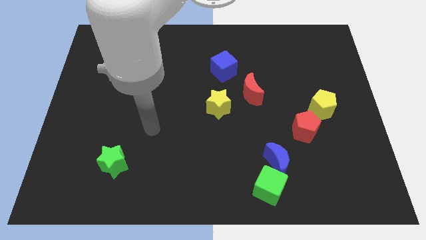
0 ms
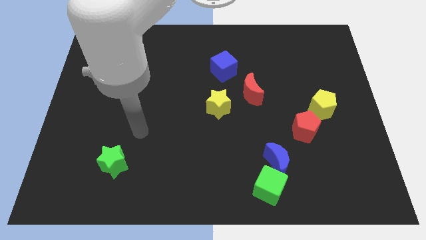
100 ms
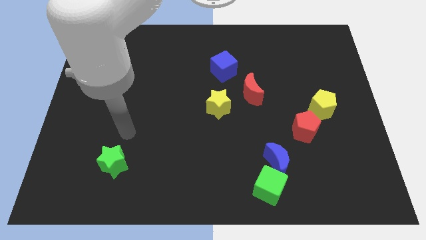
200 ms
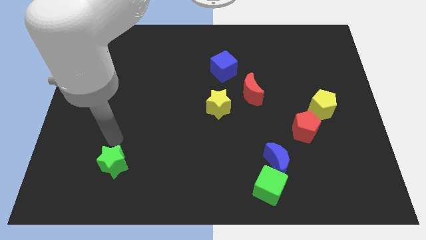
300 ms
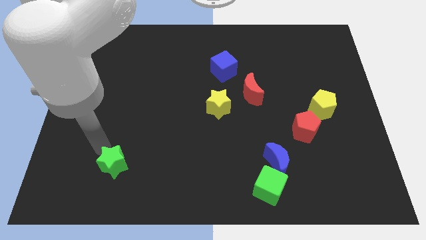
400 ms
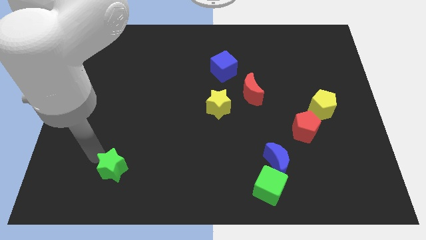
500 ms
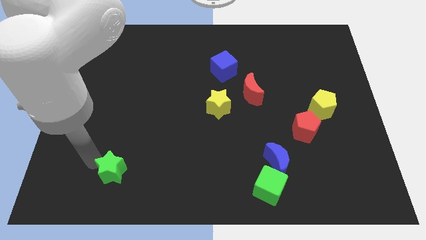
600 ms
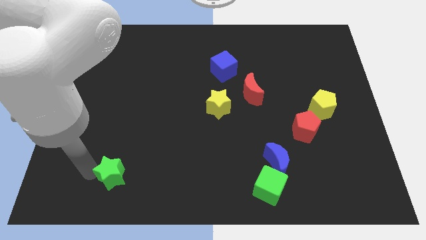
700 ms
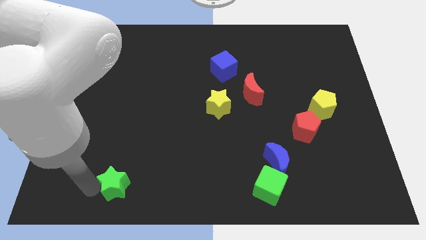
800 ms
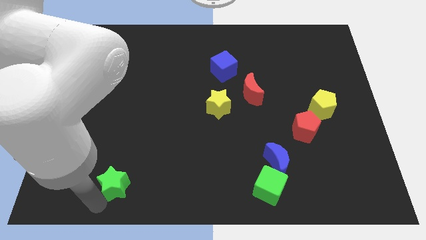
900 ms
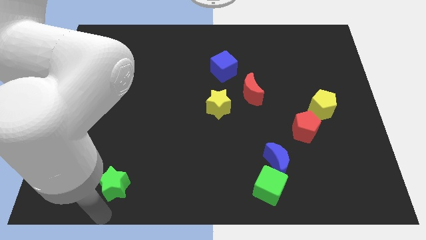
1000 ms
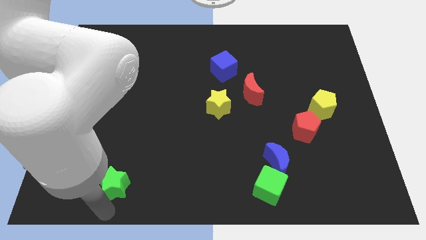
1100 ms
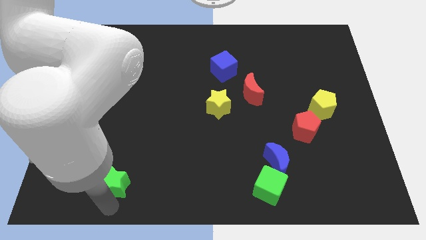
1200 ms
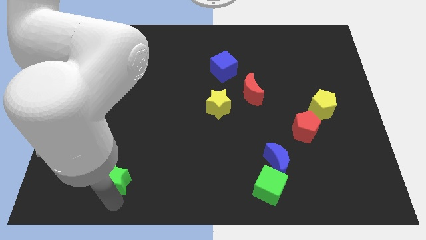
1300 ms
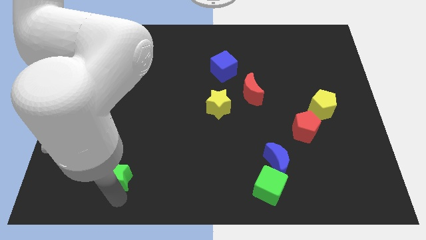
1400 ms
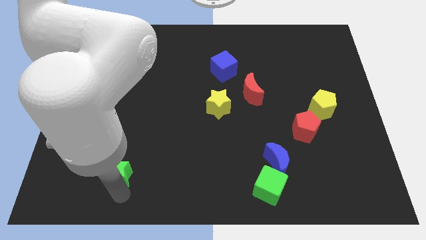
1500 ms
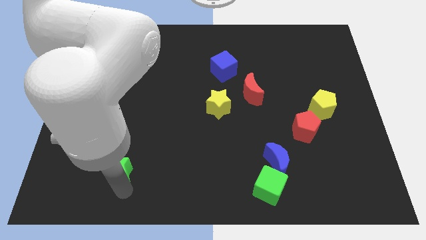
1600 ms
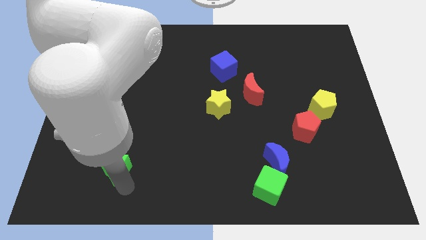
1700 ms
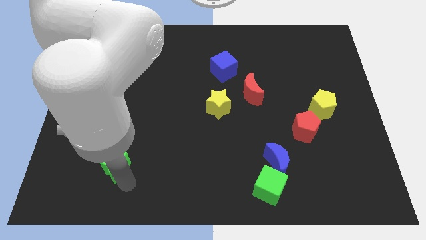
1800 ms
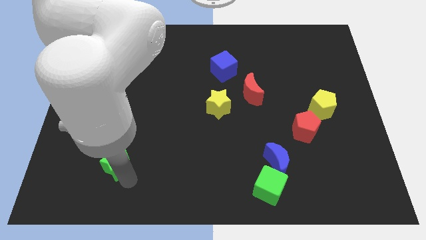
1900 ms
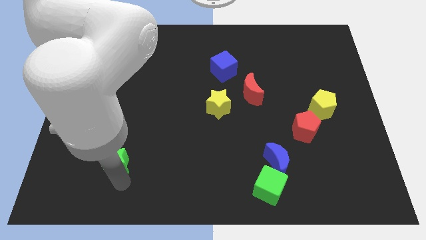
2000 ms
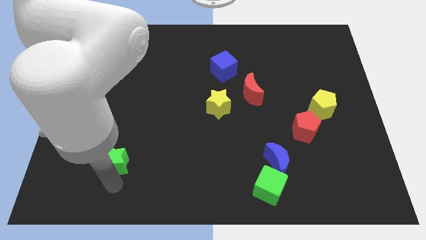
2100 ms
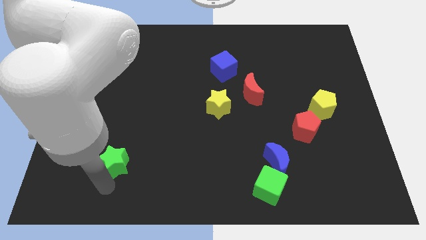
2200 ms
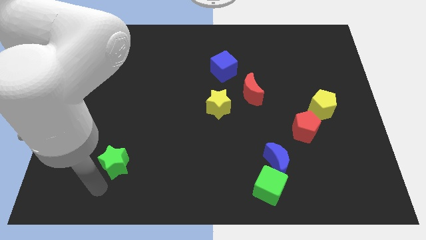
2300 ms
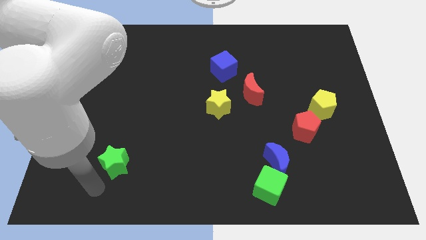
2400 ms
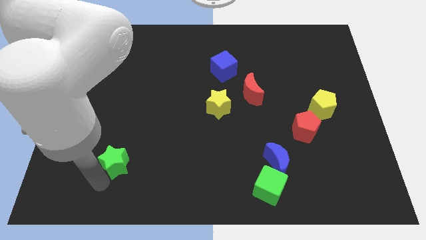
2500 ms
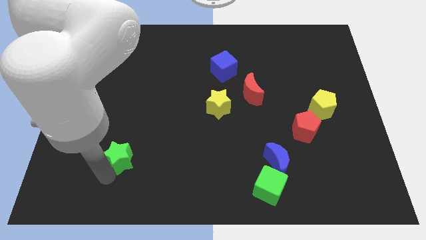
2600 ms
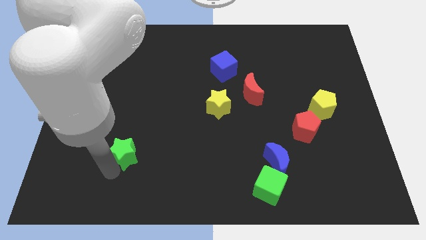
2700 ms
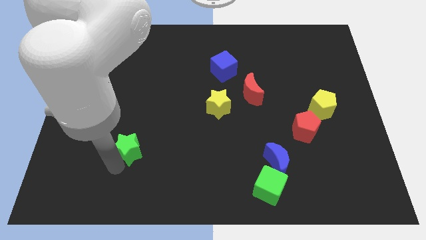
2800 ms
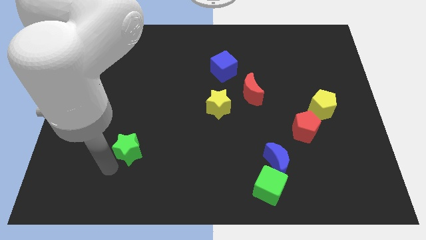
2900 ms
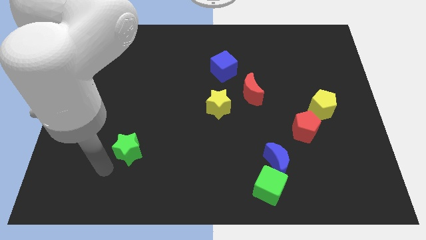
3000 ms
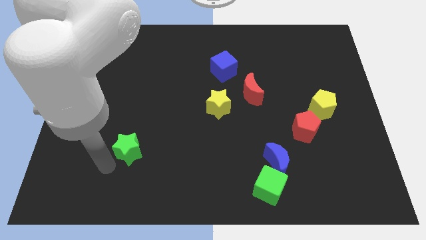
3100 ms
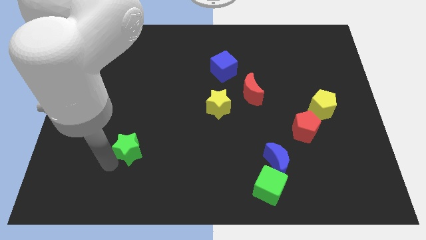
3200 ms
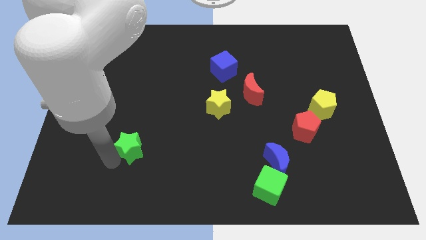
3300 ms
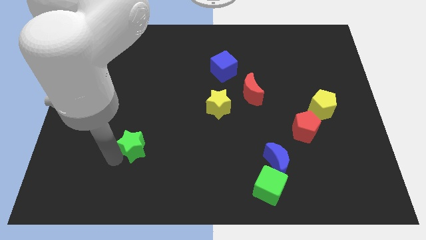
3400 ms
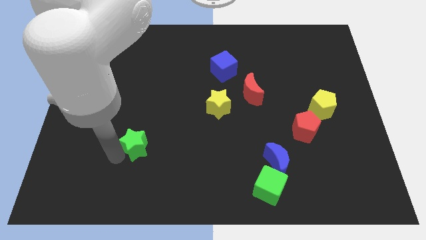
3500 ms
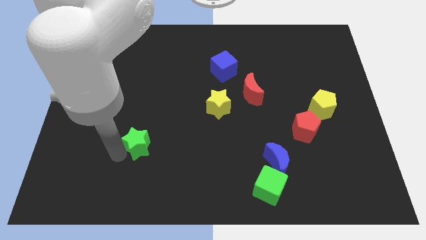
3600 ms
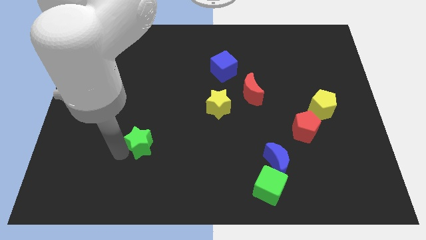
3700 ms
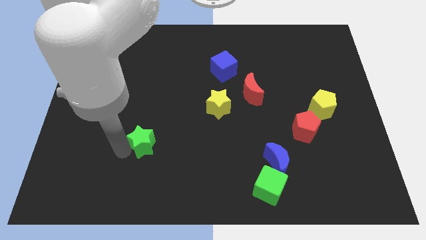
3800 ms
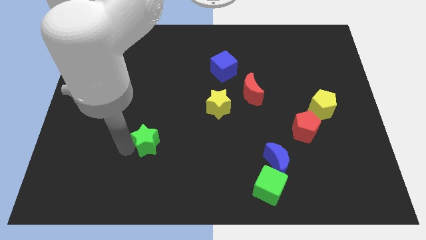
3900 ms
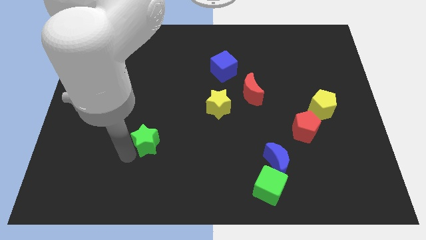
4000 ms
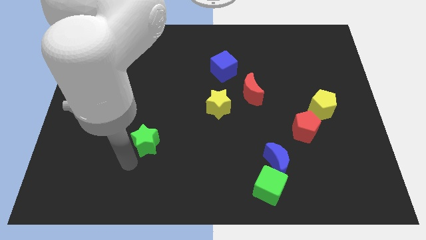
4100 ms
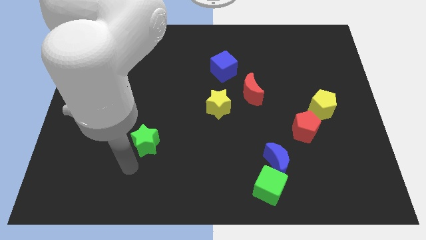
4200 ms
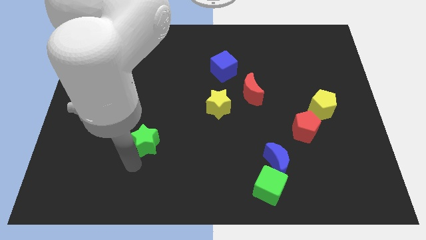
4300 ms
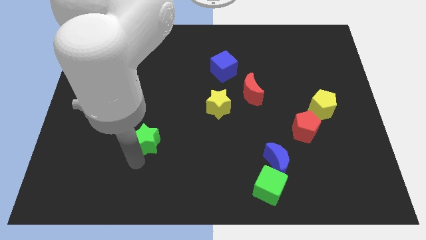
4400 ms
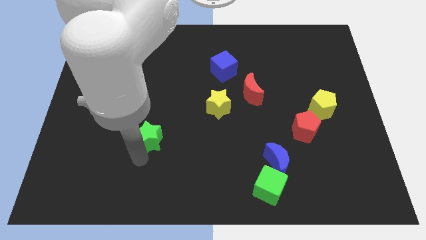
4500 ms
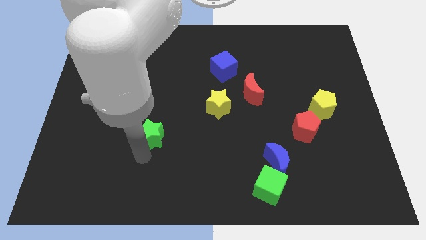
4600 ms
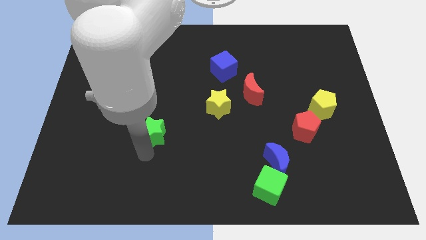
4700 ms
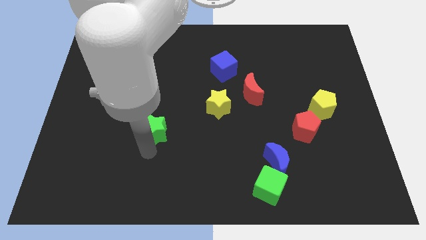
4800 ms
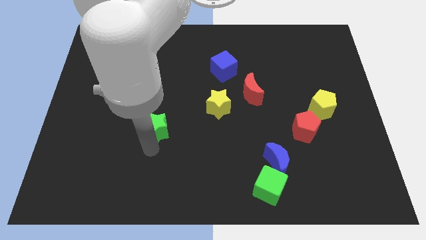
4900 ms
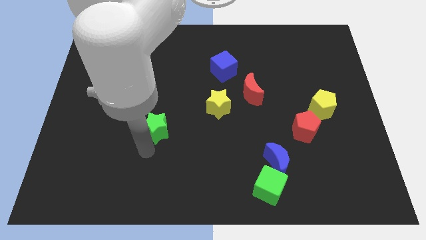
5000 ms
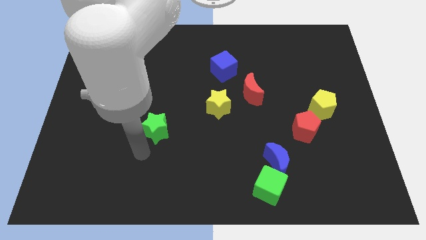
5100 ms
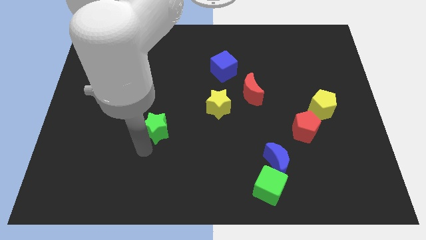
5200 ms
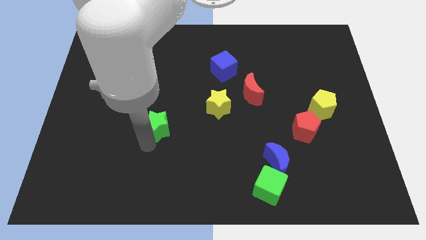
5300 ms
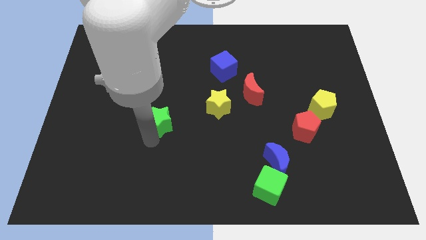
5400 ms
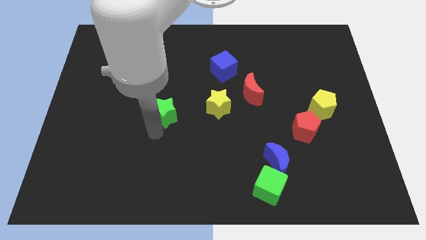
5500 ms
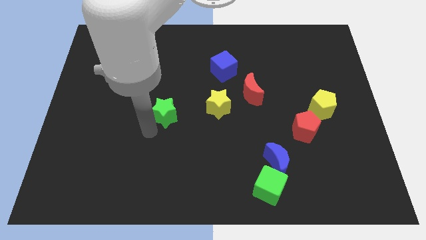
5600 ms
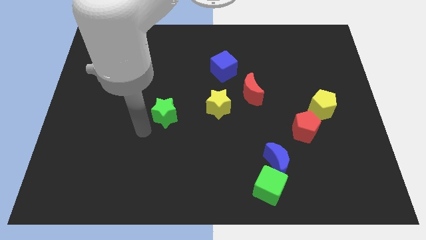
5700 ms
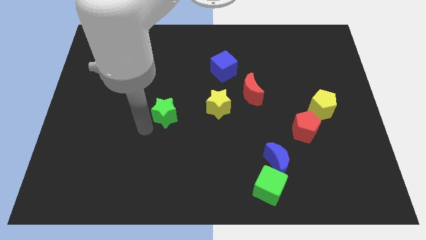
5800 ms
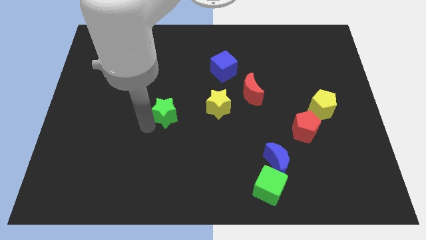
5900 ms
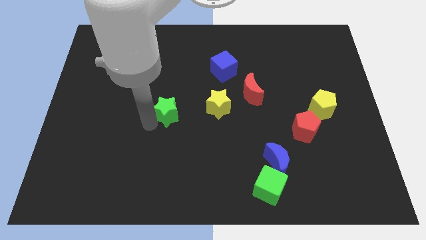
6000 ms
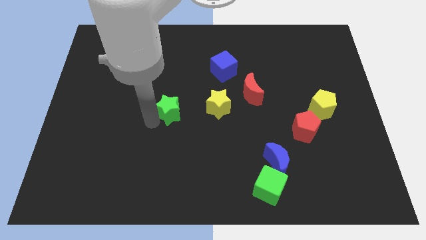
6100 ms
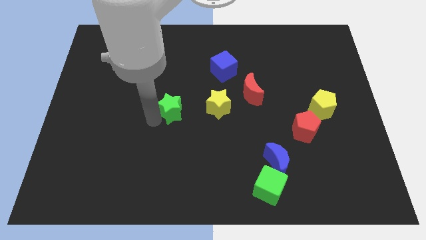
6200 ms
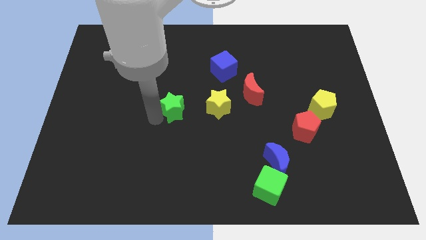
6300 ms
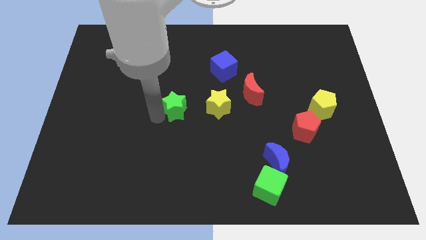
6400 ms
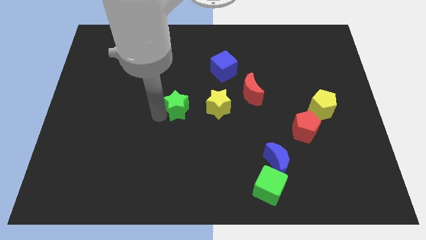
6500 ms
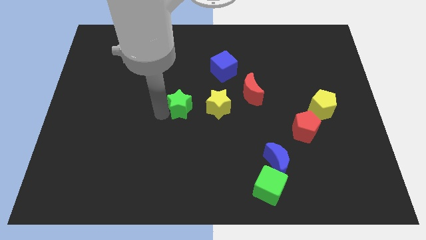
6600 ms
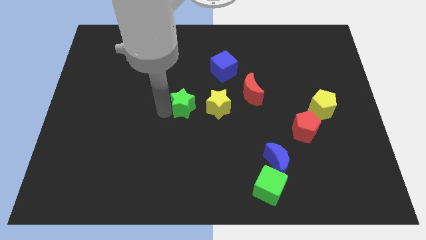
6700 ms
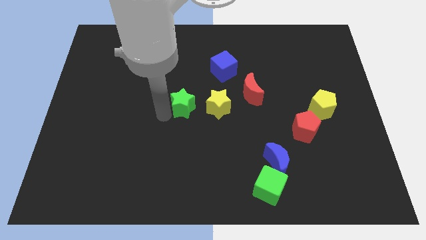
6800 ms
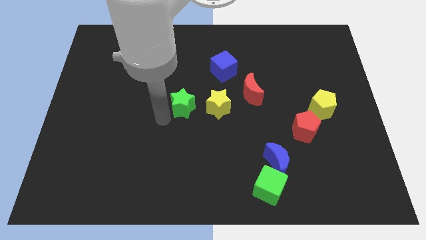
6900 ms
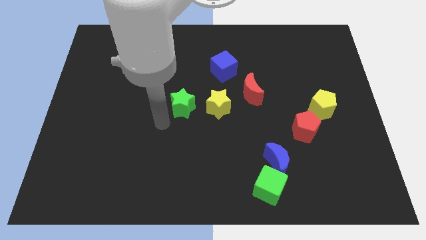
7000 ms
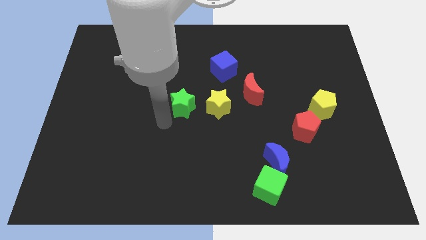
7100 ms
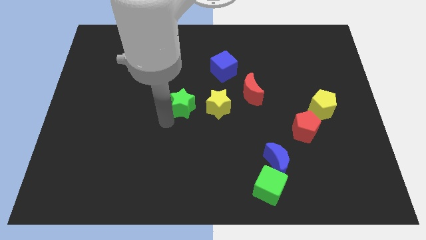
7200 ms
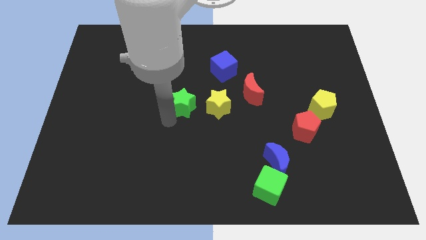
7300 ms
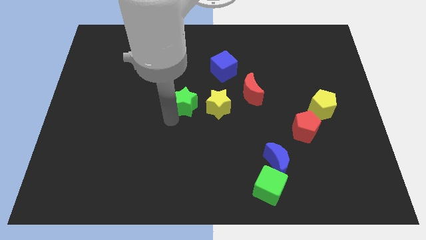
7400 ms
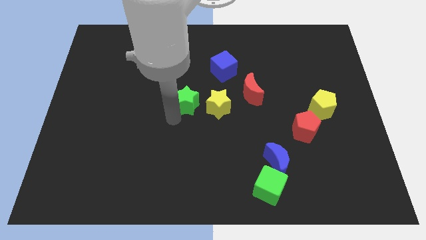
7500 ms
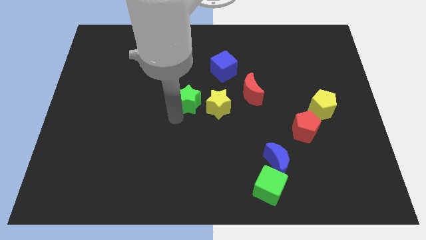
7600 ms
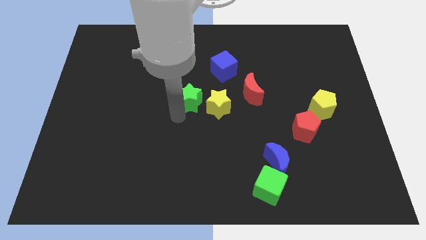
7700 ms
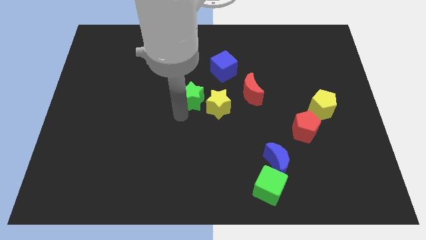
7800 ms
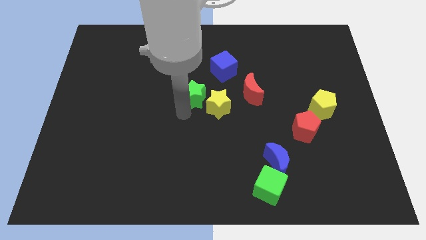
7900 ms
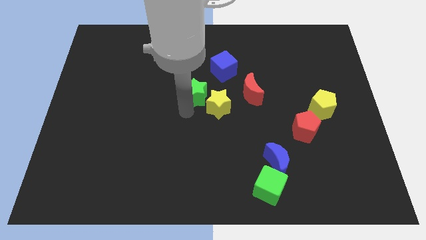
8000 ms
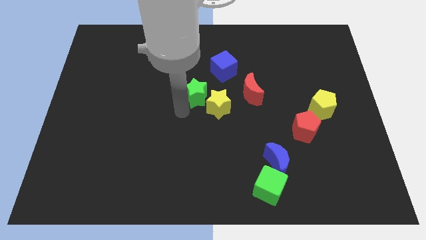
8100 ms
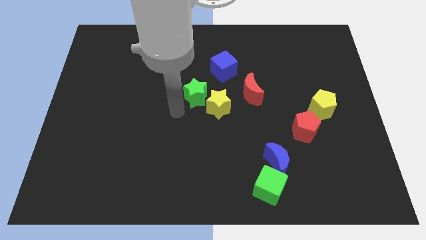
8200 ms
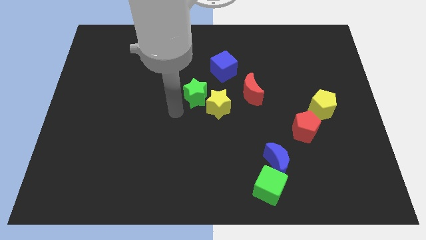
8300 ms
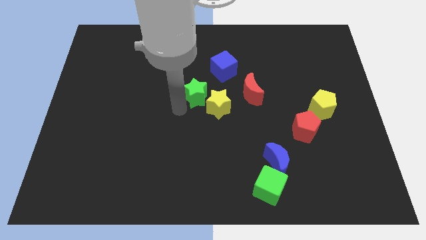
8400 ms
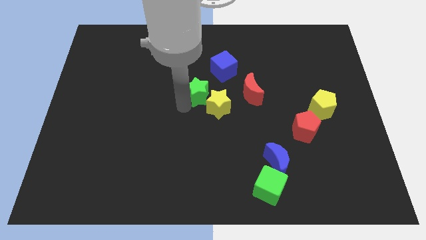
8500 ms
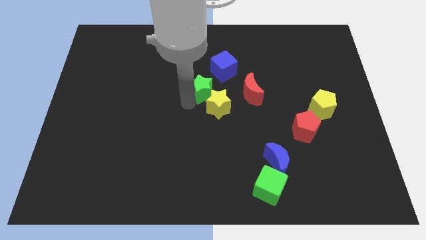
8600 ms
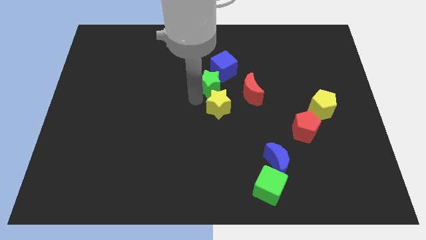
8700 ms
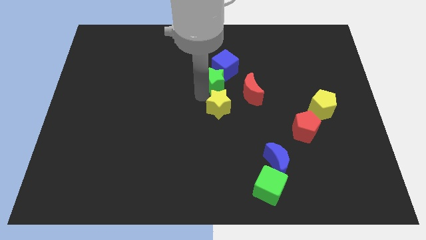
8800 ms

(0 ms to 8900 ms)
slide the green star to the blue cube
